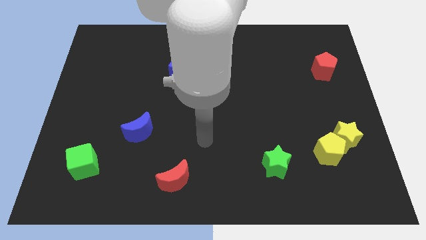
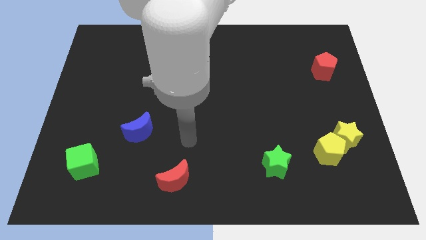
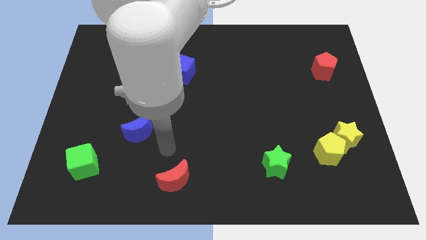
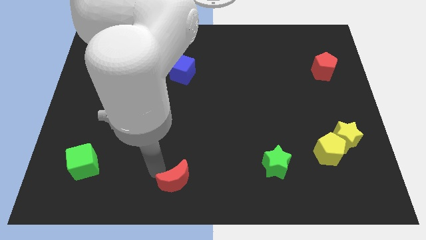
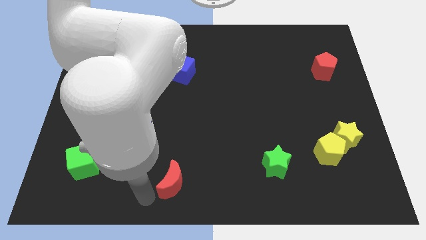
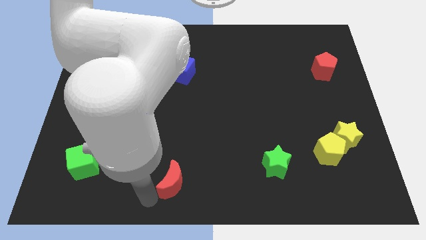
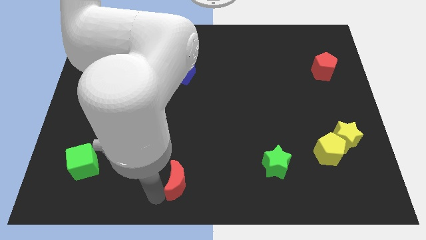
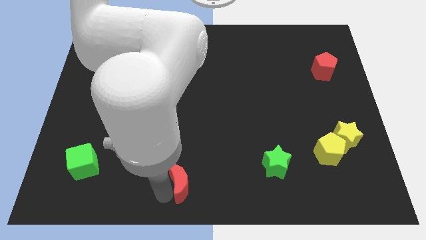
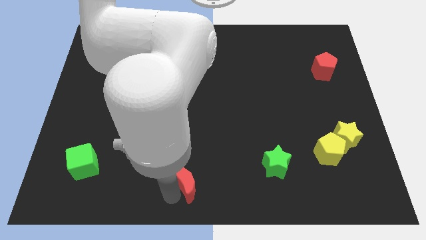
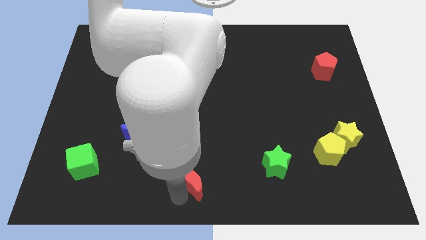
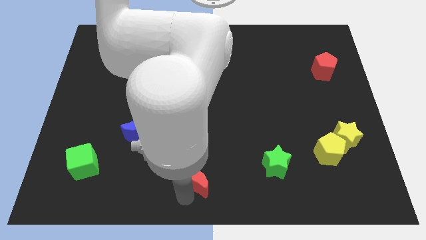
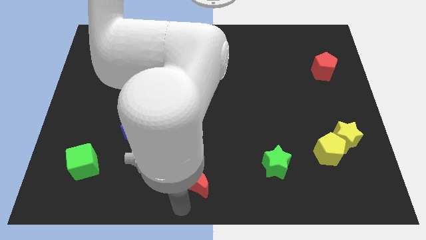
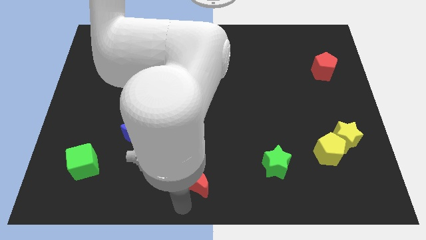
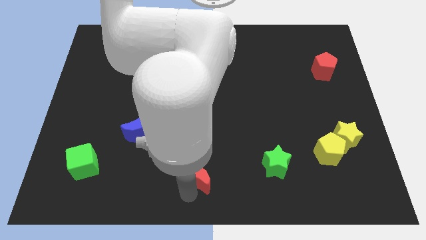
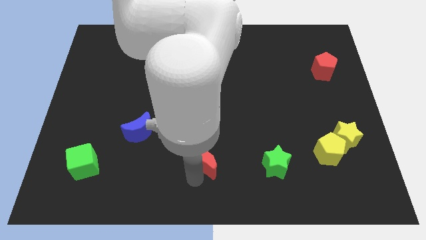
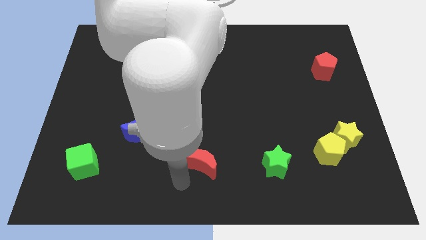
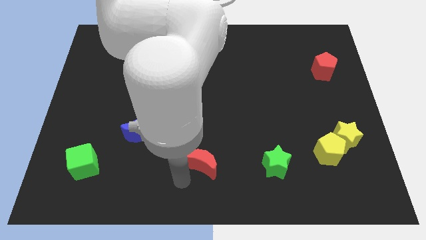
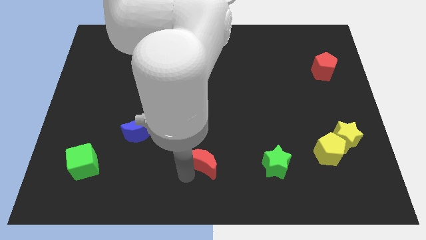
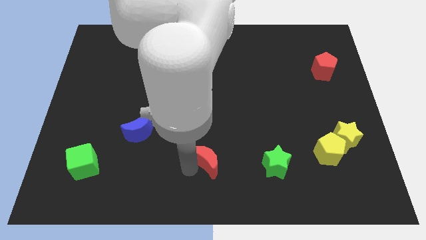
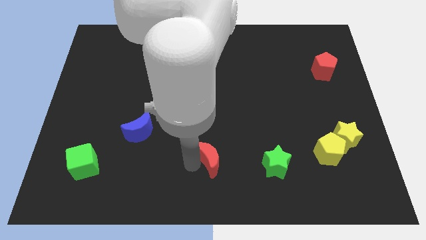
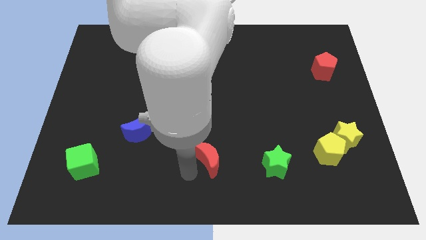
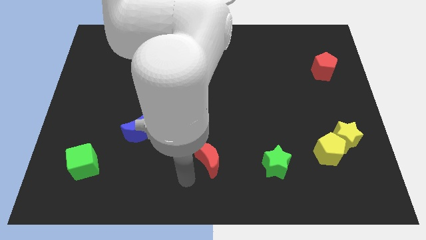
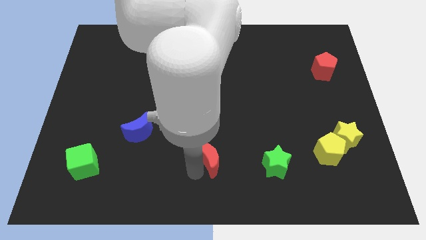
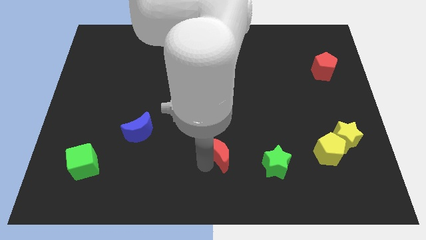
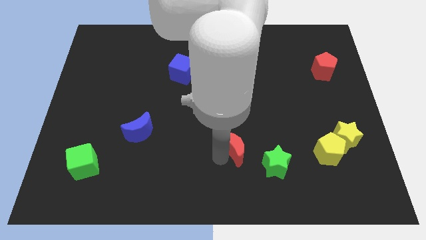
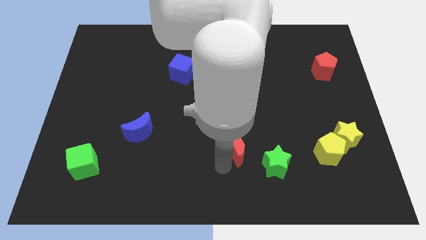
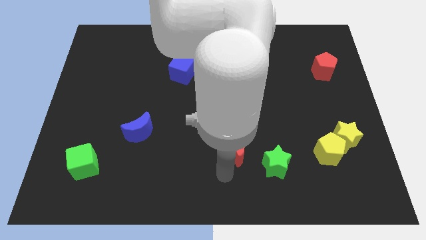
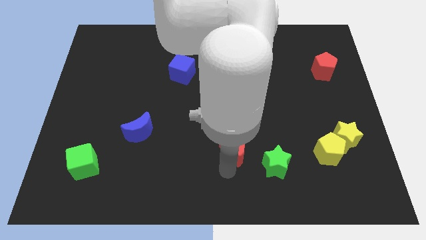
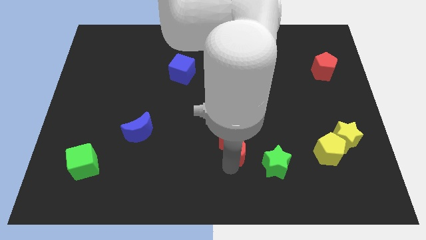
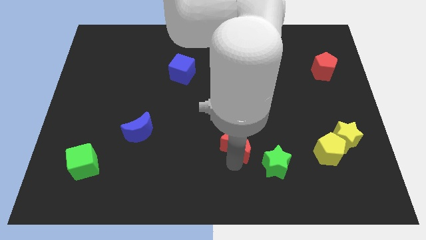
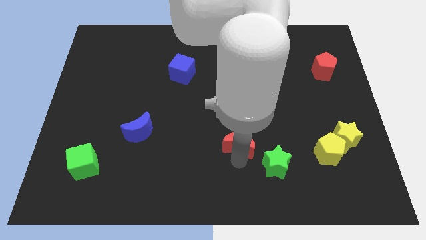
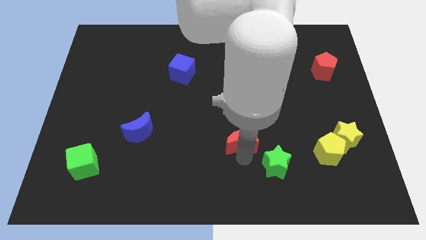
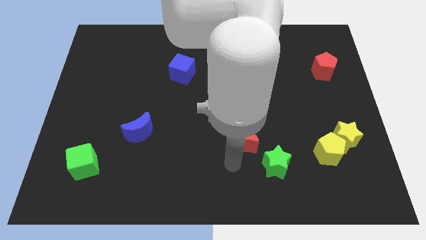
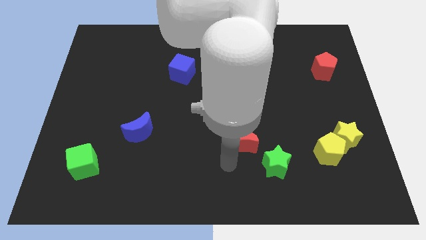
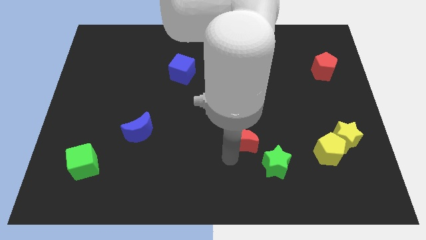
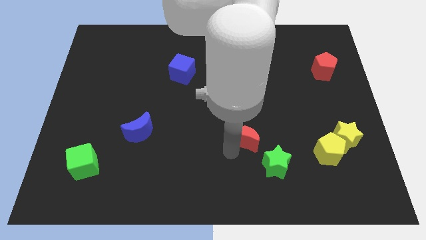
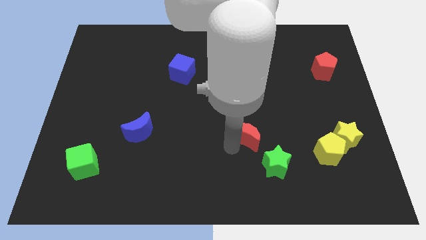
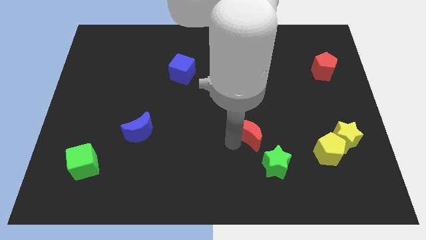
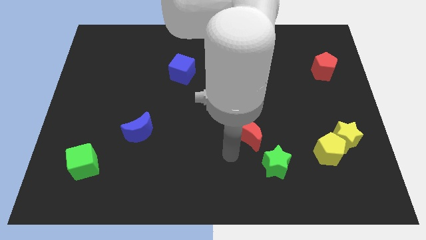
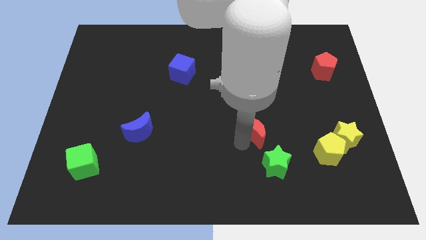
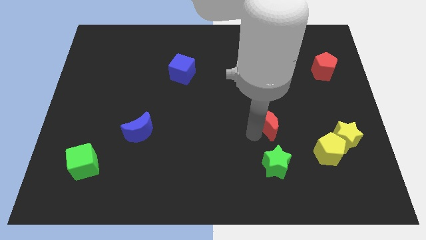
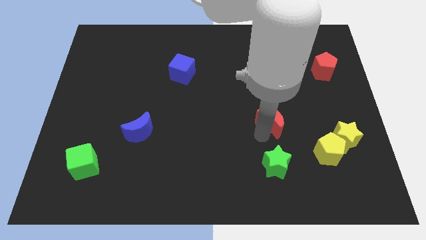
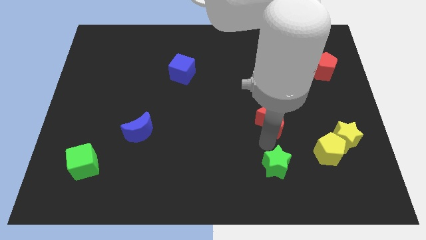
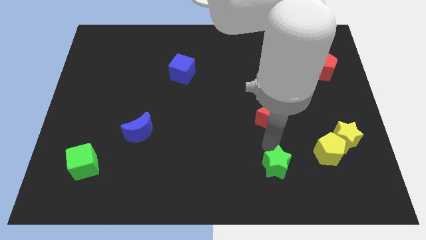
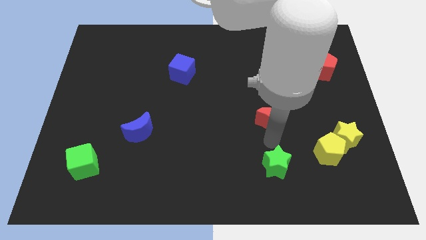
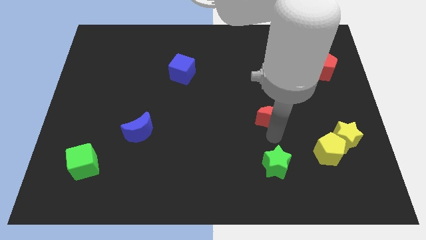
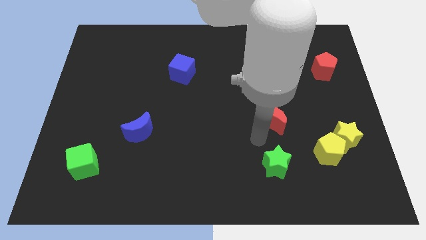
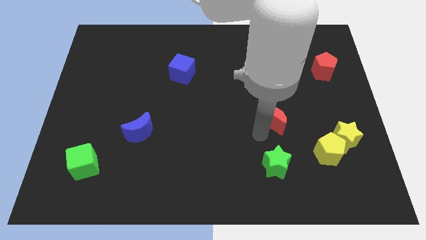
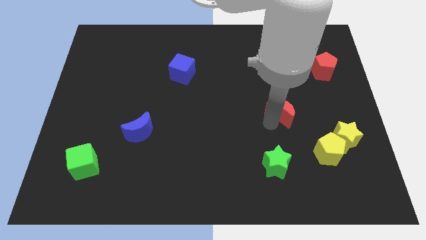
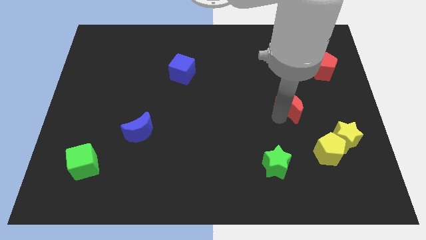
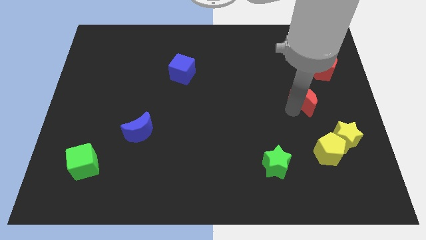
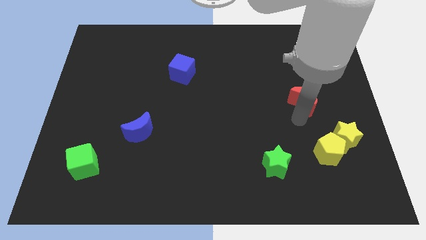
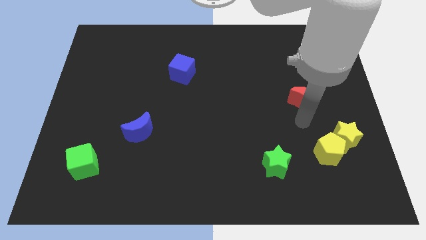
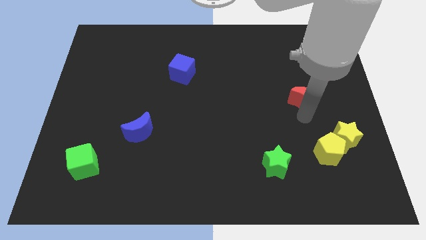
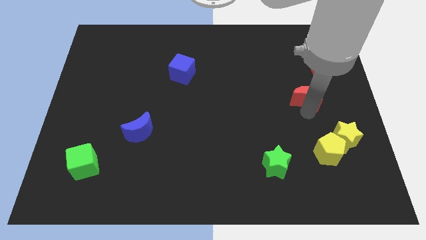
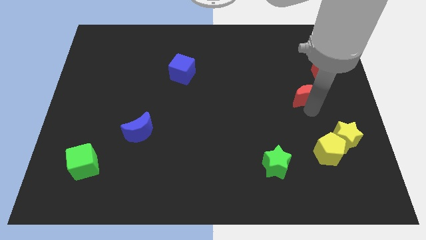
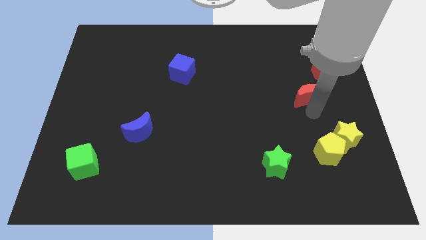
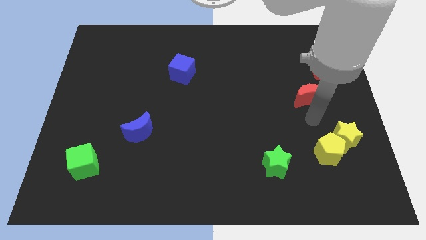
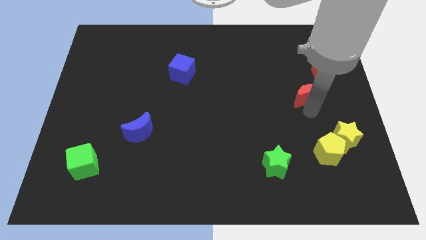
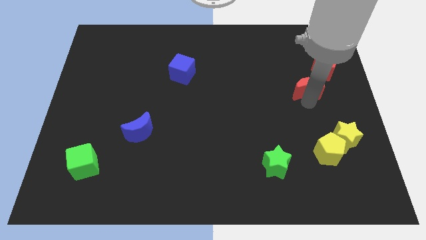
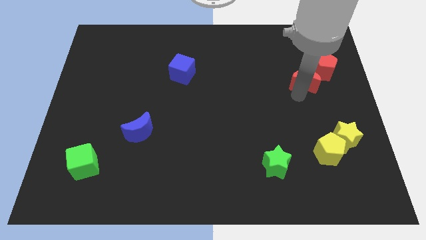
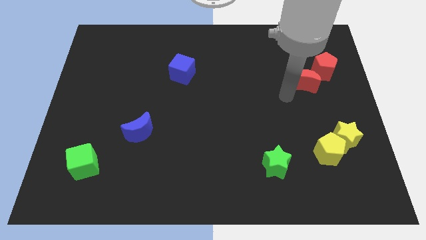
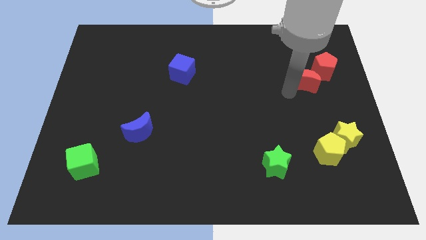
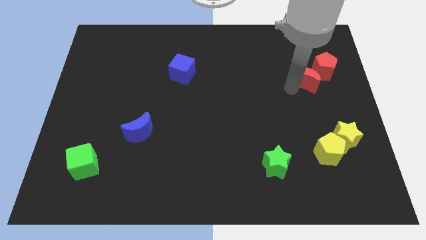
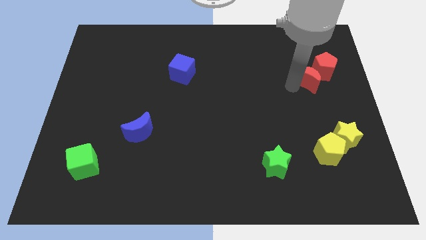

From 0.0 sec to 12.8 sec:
move the red moon towards the red pentagon

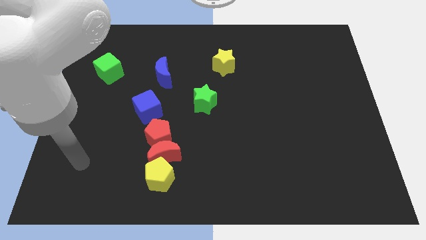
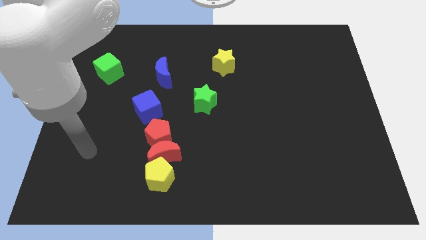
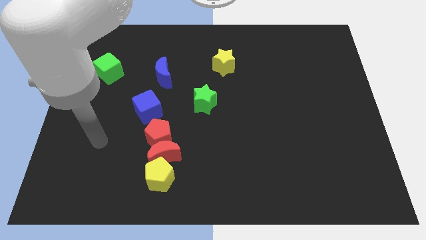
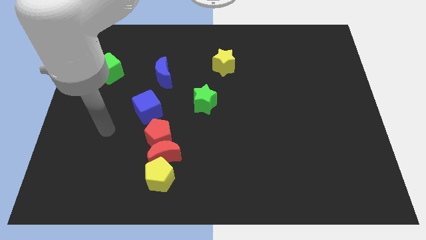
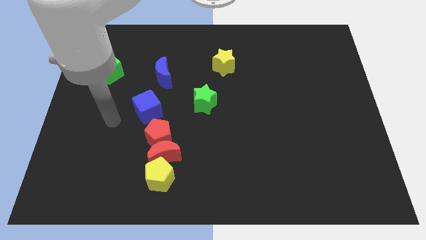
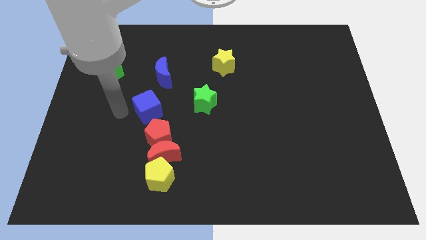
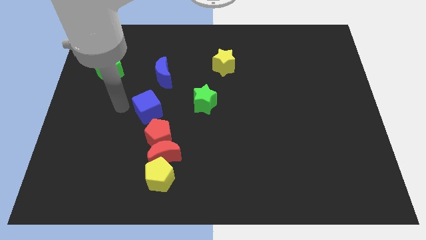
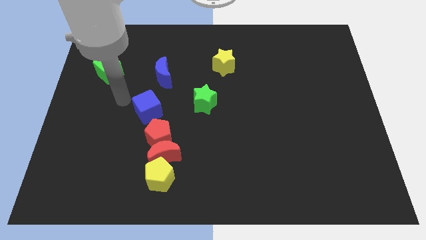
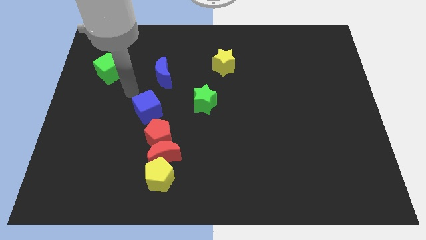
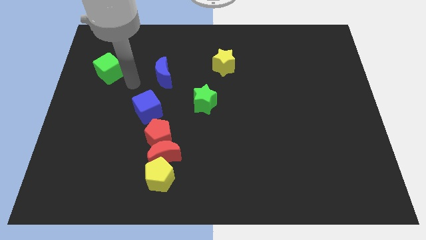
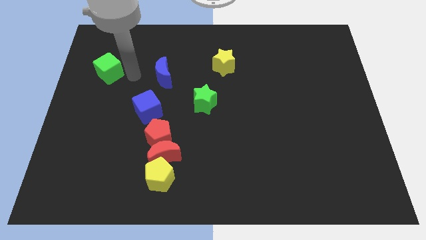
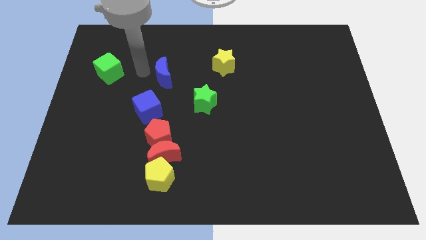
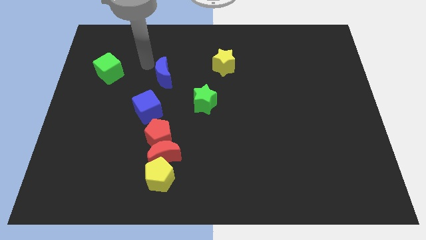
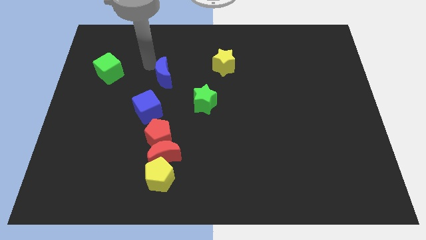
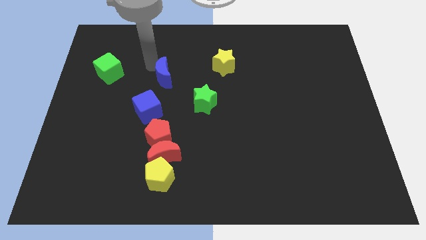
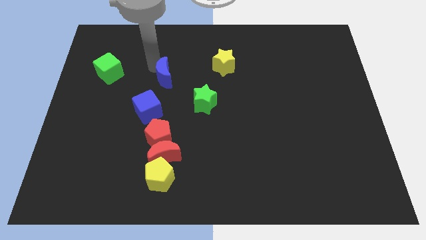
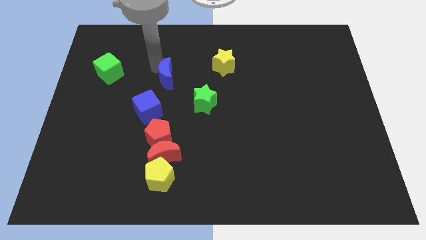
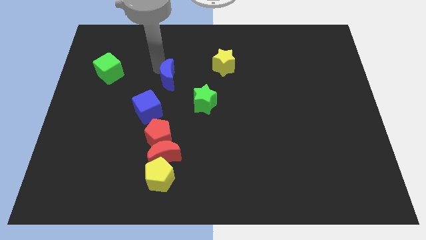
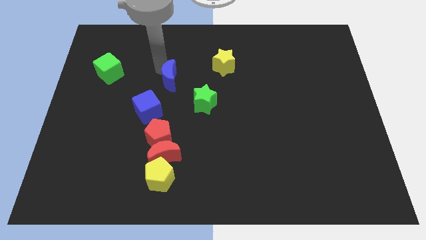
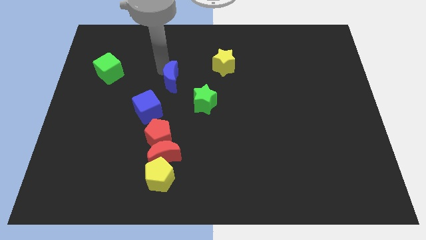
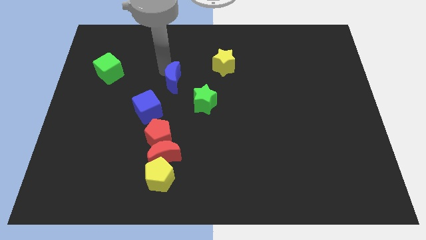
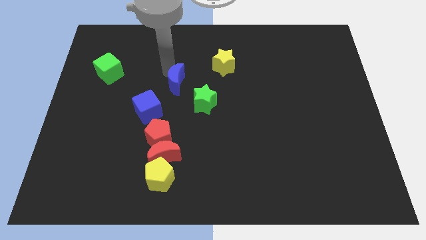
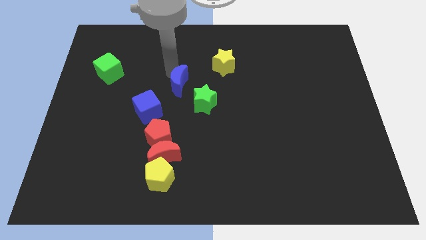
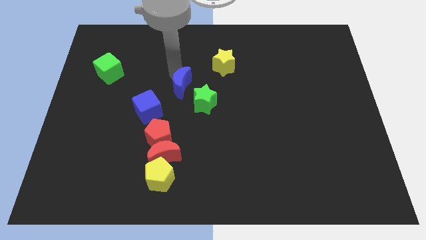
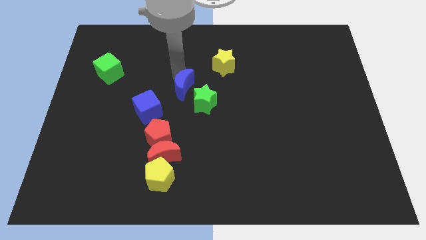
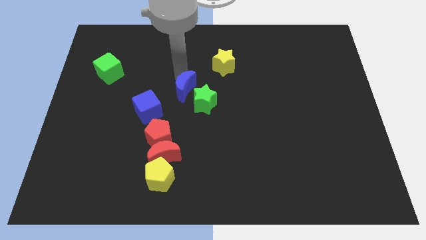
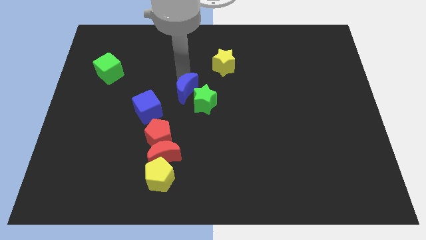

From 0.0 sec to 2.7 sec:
move the blue moon to the green star
